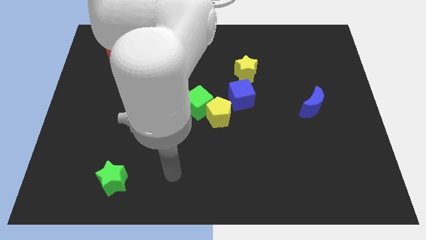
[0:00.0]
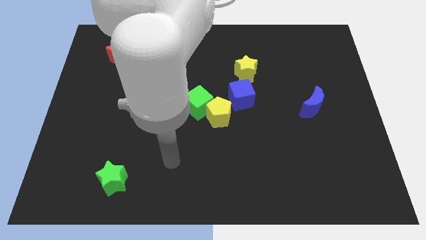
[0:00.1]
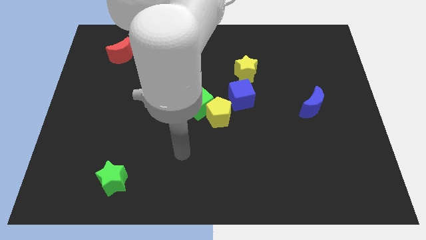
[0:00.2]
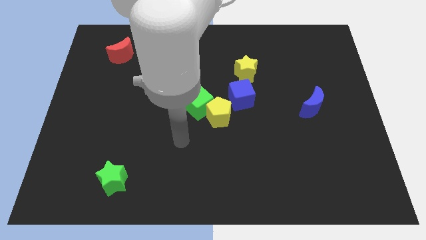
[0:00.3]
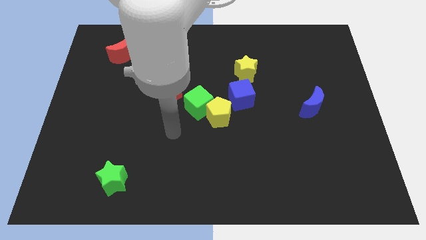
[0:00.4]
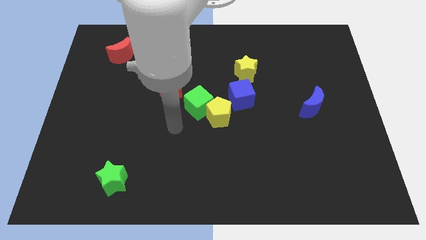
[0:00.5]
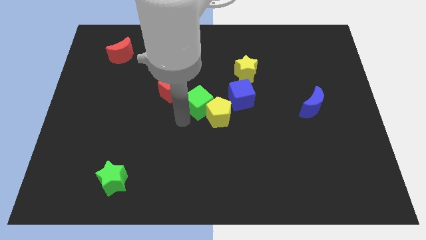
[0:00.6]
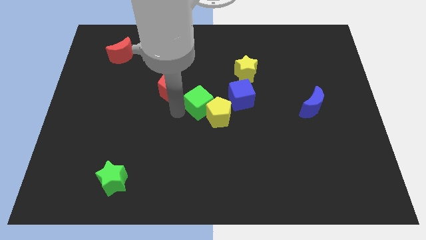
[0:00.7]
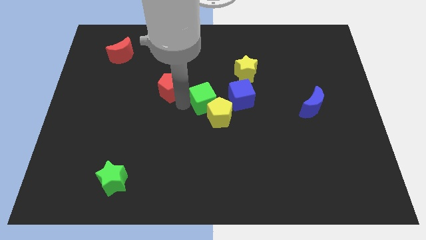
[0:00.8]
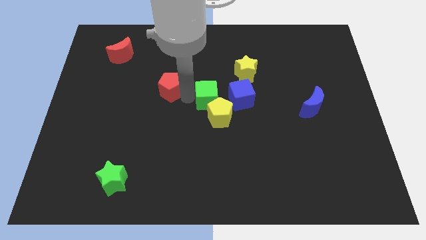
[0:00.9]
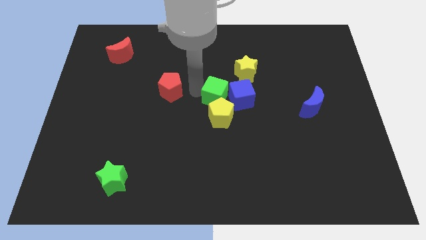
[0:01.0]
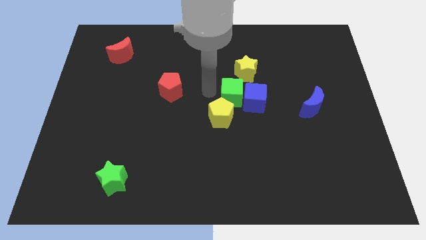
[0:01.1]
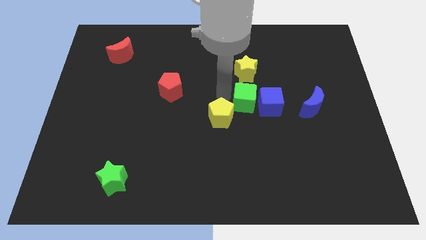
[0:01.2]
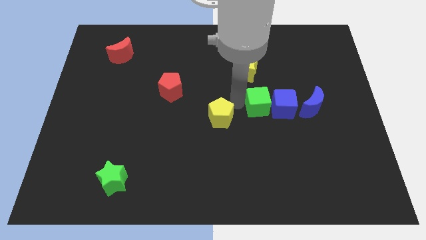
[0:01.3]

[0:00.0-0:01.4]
separate the yellow pentagon from the green cube and blue cube

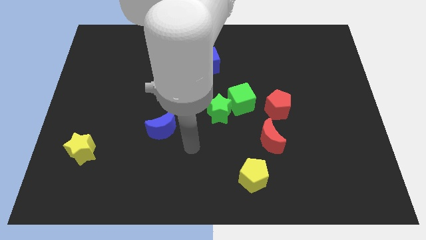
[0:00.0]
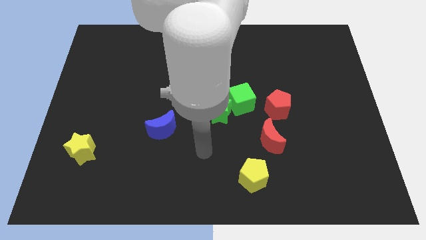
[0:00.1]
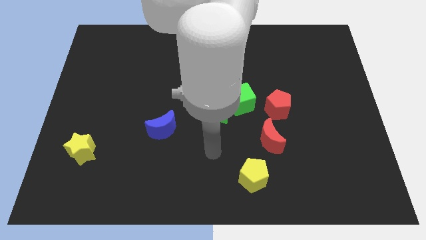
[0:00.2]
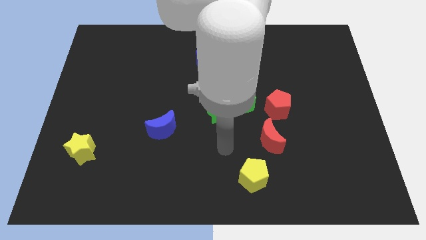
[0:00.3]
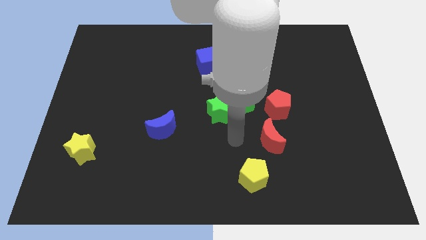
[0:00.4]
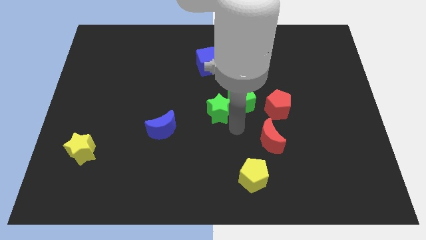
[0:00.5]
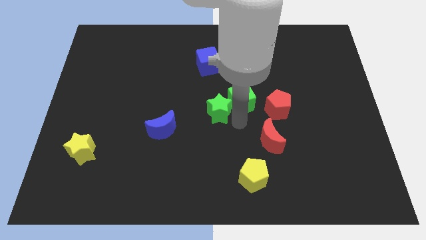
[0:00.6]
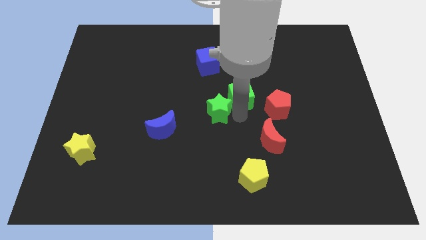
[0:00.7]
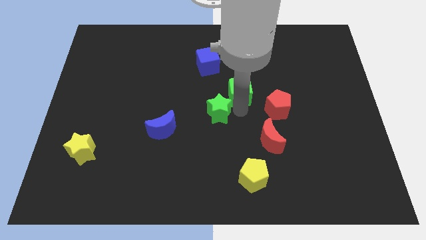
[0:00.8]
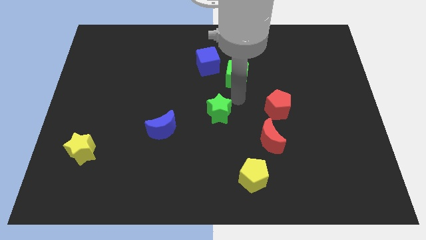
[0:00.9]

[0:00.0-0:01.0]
pull the green star apart from the green cube

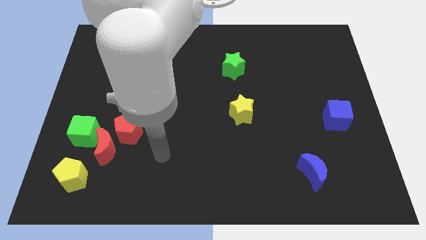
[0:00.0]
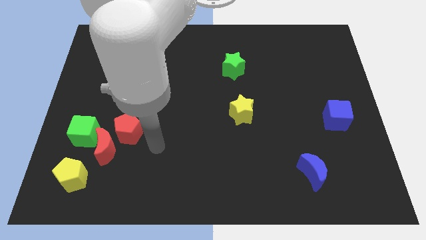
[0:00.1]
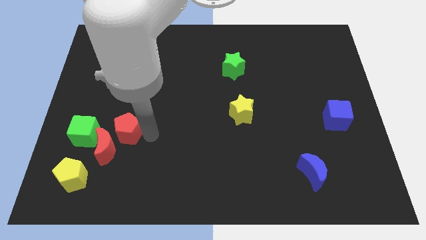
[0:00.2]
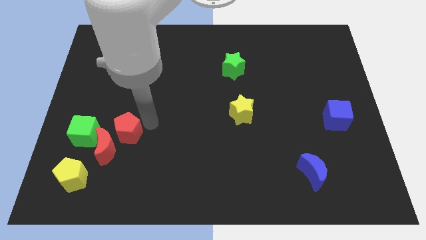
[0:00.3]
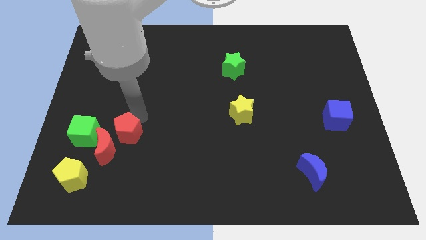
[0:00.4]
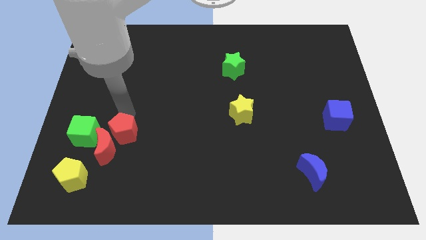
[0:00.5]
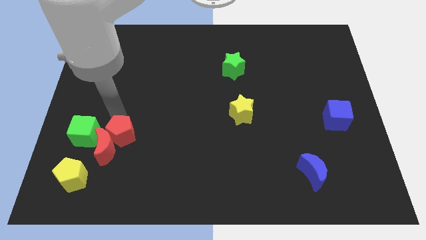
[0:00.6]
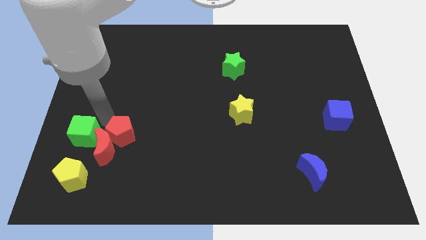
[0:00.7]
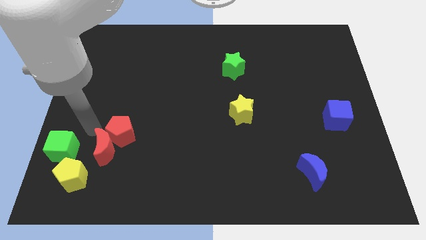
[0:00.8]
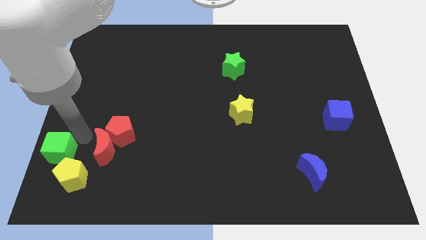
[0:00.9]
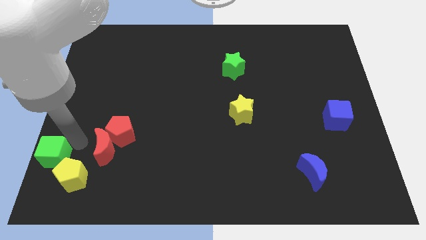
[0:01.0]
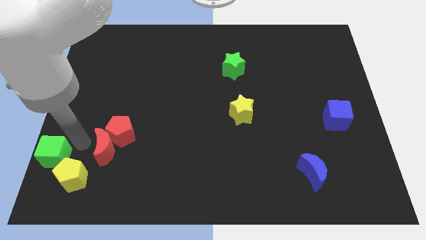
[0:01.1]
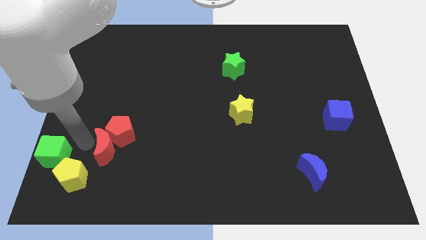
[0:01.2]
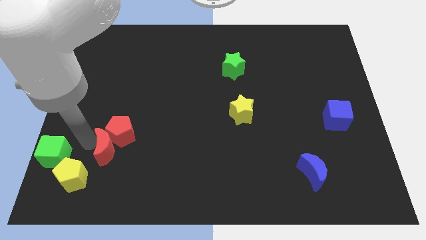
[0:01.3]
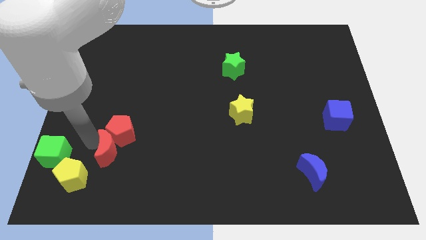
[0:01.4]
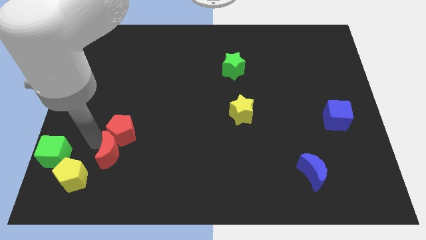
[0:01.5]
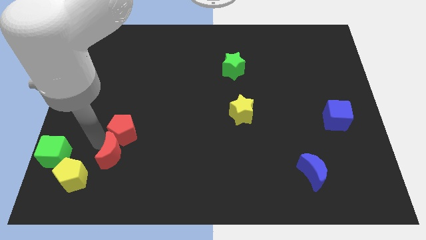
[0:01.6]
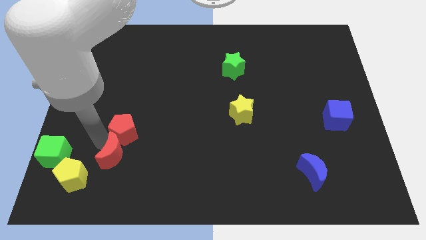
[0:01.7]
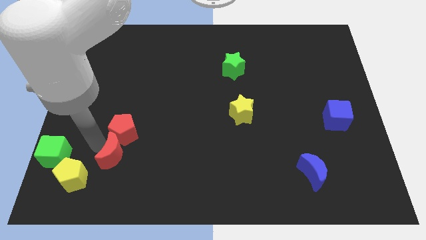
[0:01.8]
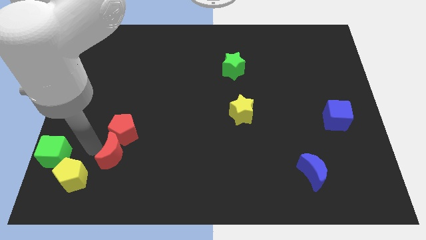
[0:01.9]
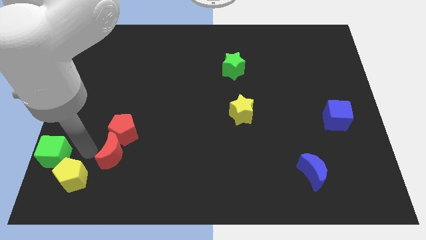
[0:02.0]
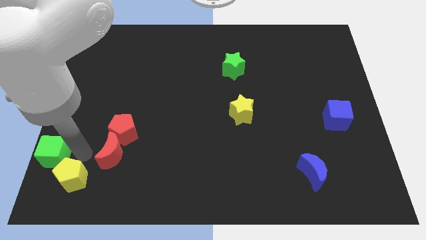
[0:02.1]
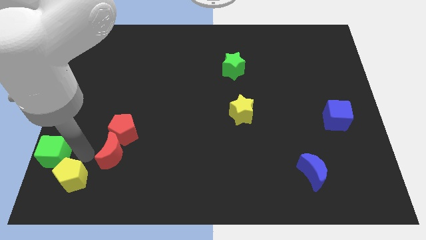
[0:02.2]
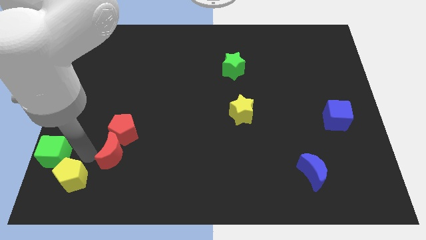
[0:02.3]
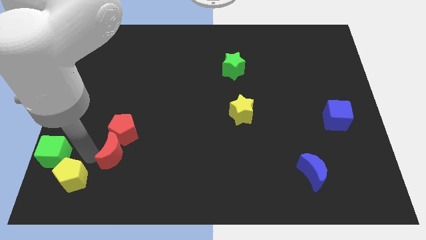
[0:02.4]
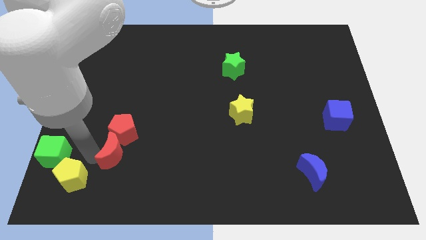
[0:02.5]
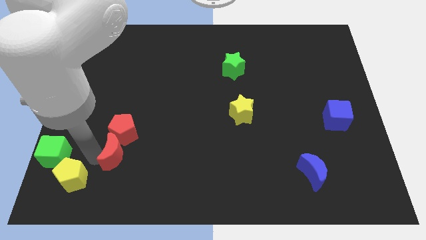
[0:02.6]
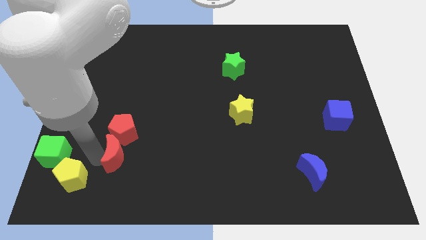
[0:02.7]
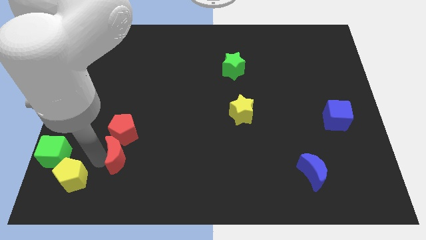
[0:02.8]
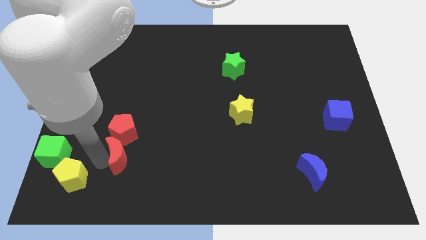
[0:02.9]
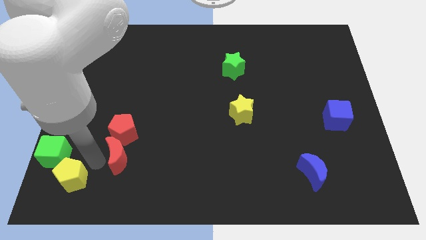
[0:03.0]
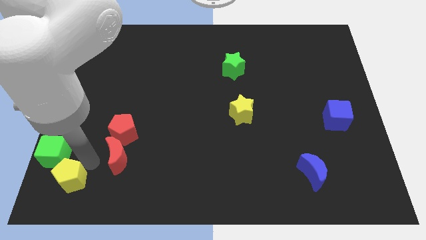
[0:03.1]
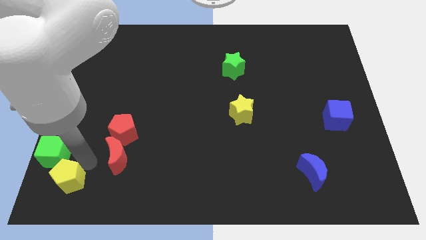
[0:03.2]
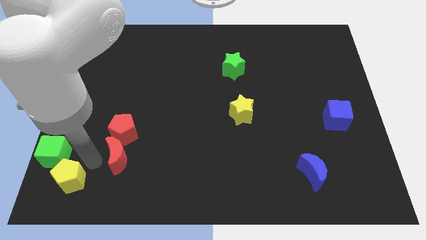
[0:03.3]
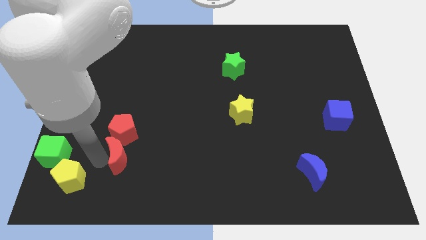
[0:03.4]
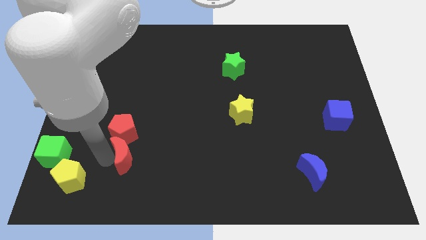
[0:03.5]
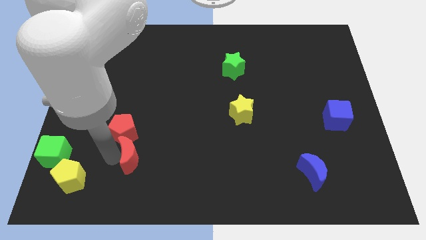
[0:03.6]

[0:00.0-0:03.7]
move the red moon away from the group

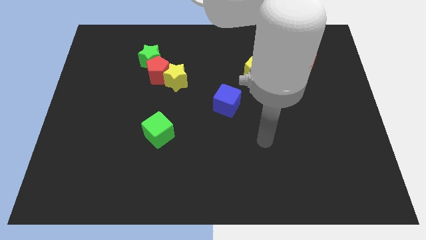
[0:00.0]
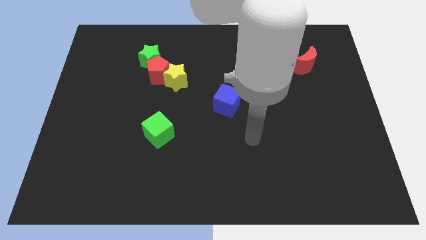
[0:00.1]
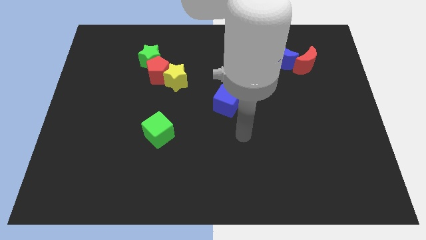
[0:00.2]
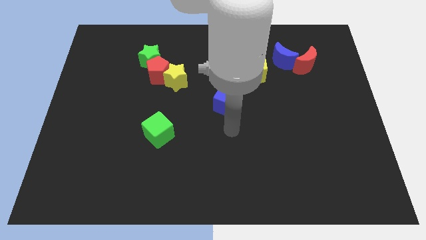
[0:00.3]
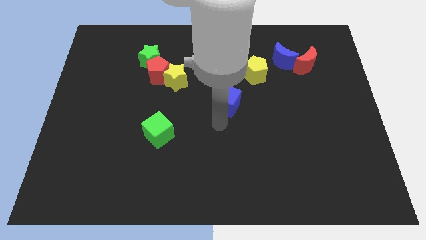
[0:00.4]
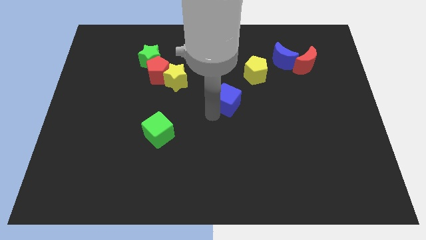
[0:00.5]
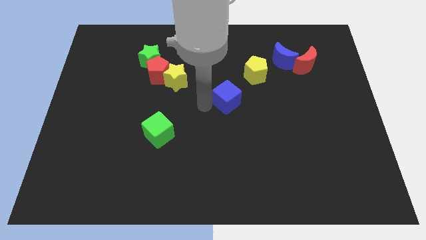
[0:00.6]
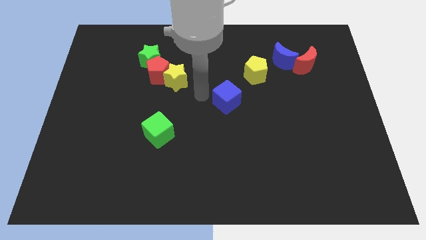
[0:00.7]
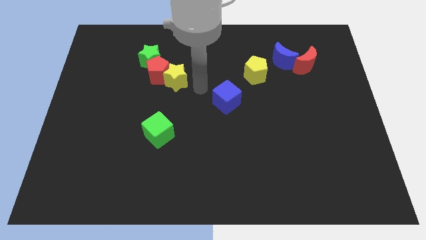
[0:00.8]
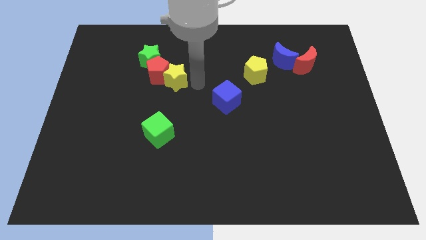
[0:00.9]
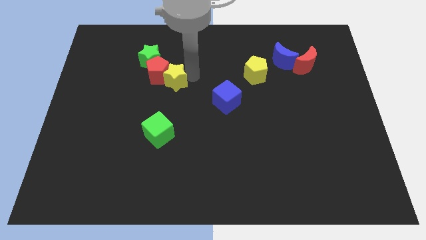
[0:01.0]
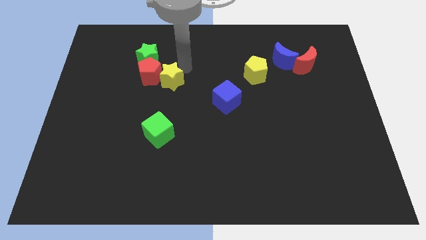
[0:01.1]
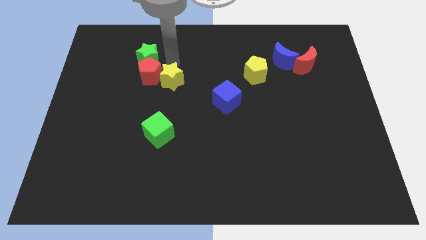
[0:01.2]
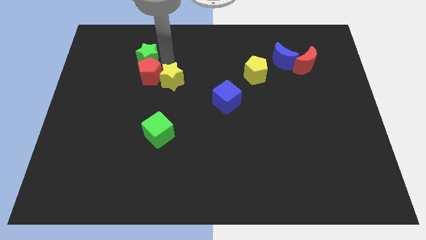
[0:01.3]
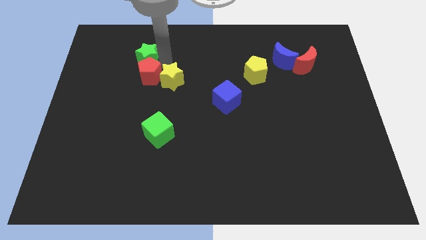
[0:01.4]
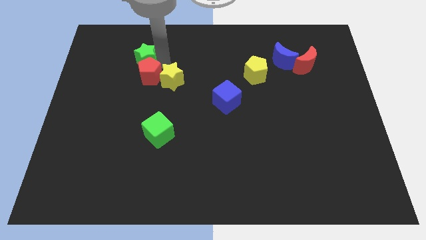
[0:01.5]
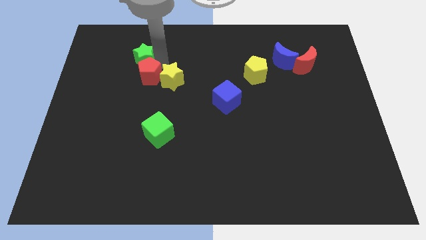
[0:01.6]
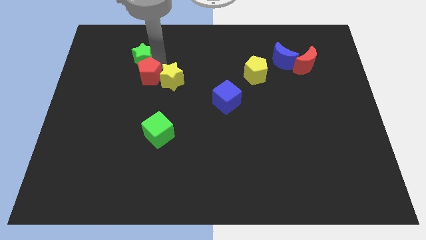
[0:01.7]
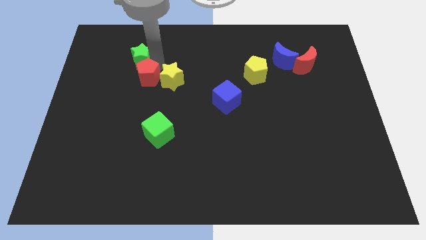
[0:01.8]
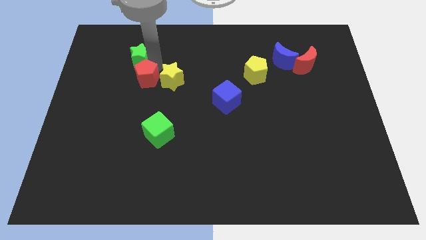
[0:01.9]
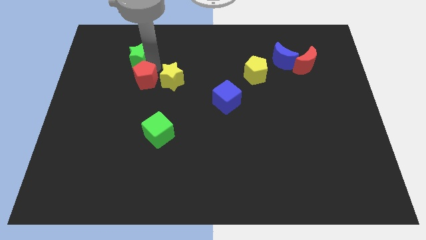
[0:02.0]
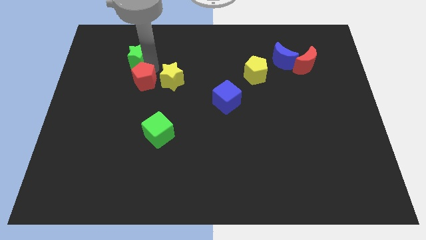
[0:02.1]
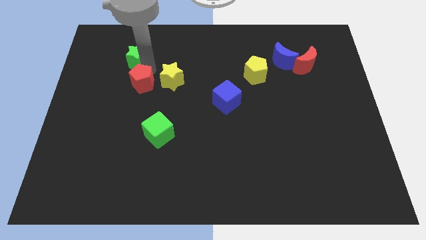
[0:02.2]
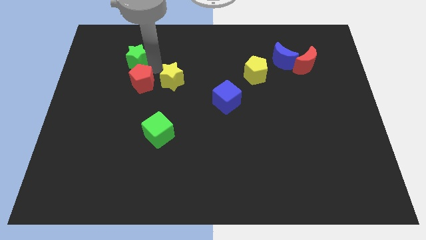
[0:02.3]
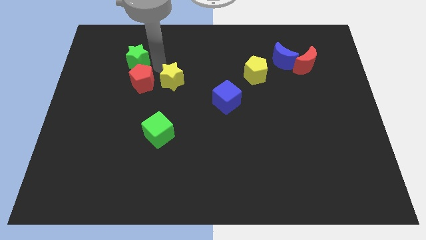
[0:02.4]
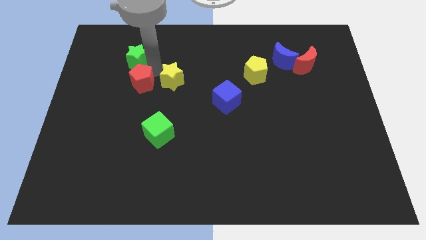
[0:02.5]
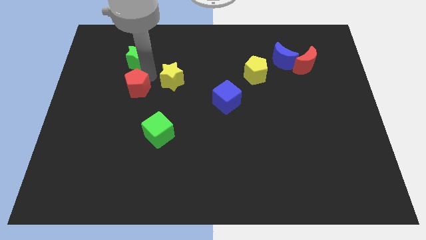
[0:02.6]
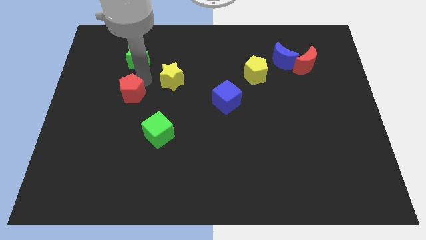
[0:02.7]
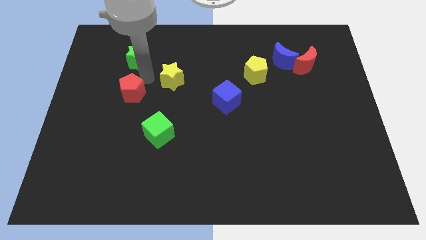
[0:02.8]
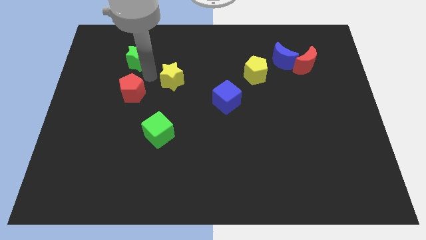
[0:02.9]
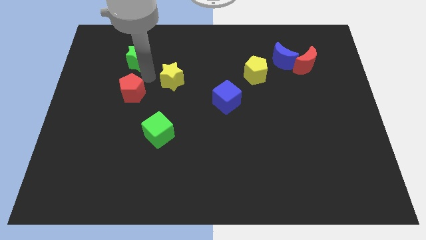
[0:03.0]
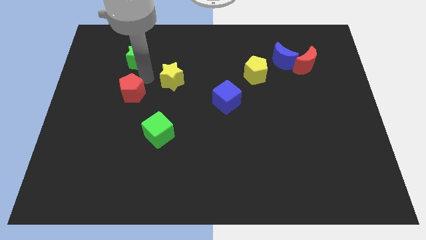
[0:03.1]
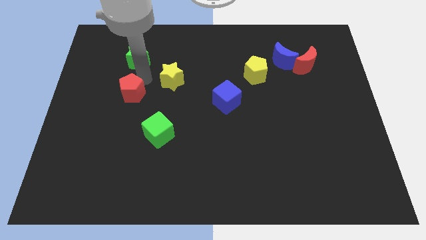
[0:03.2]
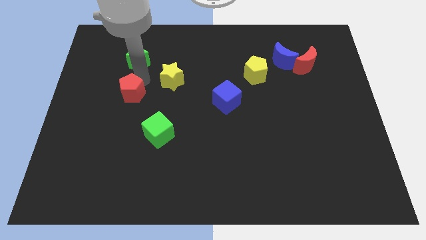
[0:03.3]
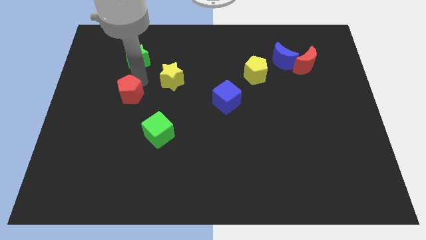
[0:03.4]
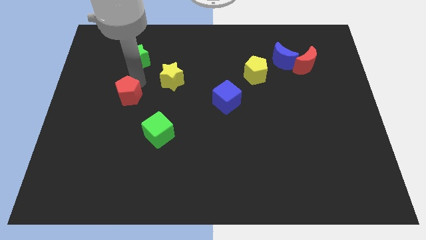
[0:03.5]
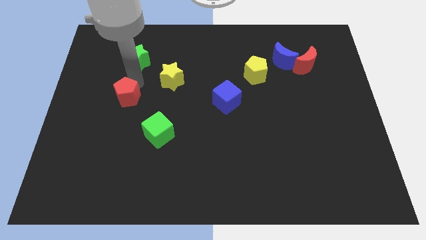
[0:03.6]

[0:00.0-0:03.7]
separate the red pentagon from the green star and yellow star
